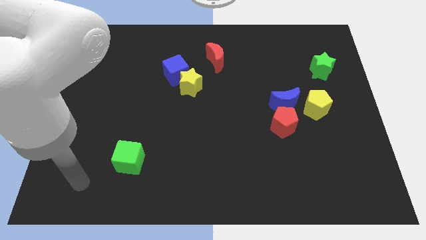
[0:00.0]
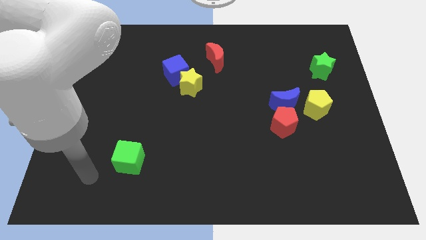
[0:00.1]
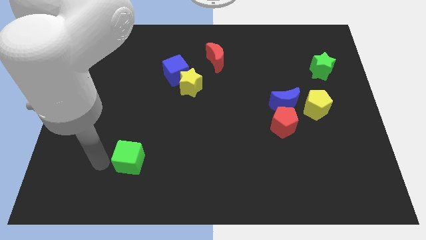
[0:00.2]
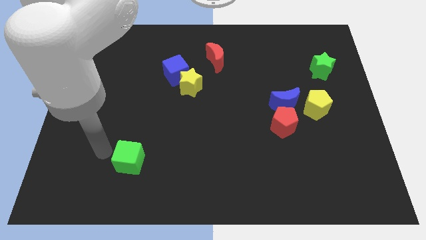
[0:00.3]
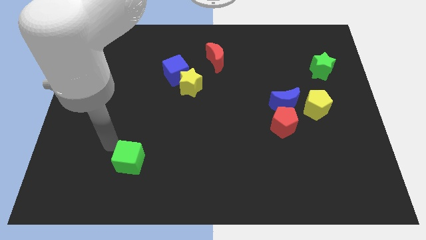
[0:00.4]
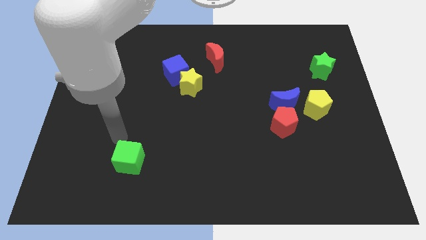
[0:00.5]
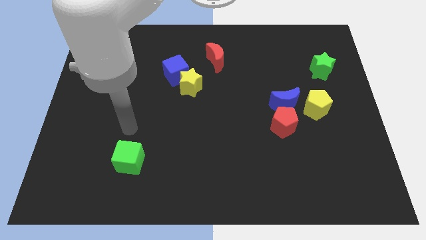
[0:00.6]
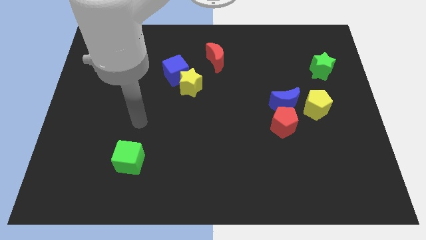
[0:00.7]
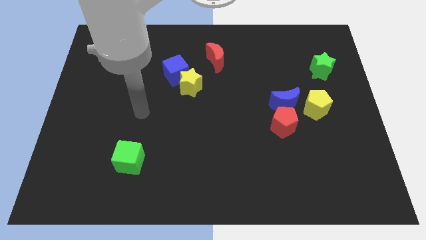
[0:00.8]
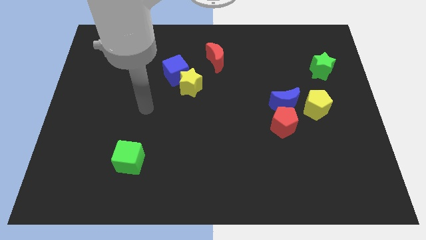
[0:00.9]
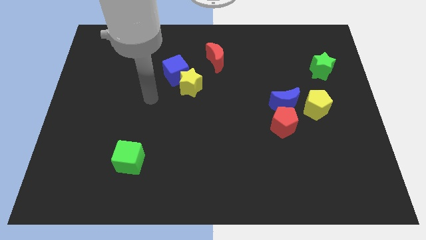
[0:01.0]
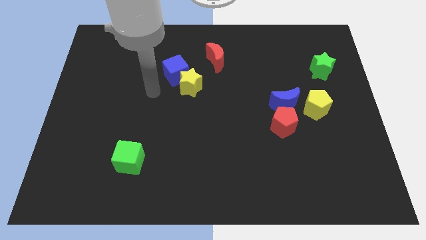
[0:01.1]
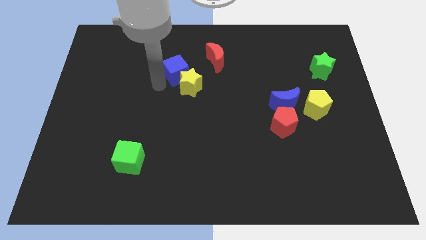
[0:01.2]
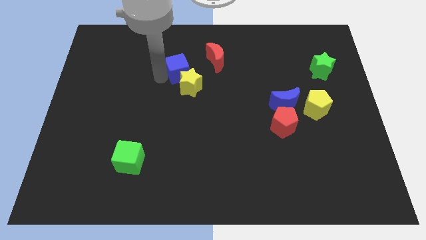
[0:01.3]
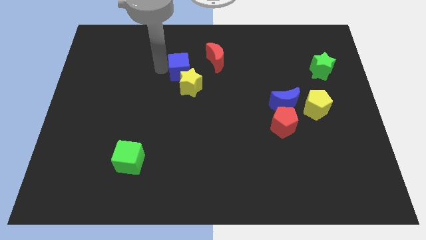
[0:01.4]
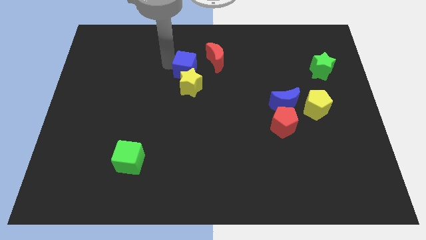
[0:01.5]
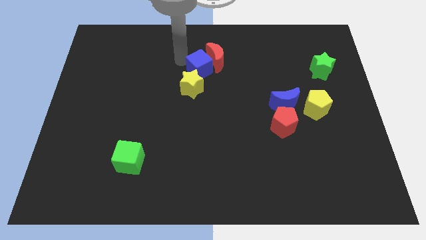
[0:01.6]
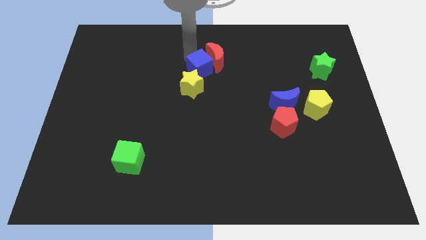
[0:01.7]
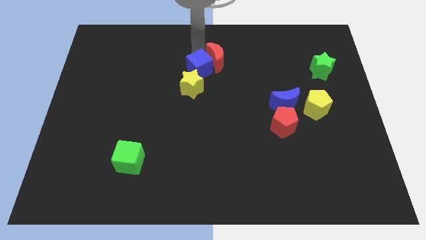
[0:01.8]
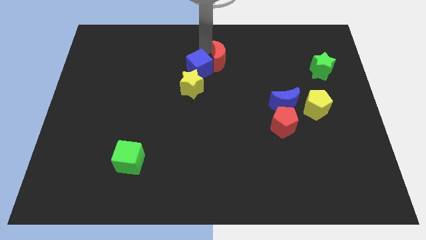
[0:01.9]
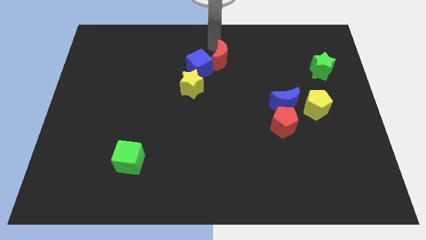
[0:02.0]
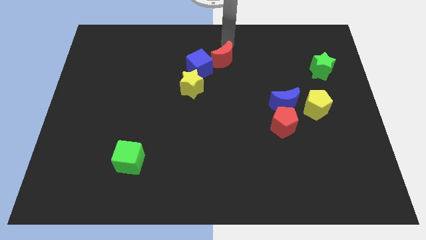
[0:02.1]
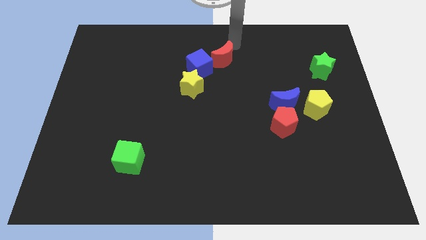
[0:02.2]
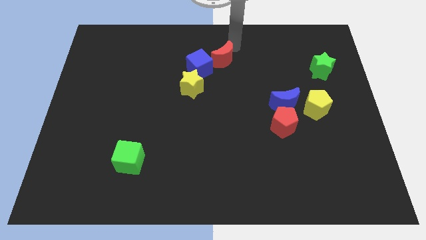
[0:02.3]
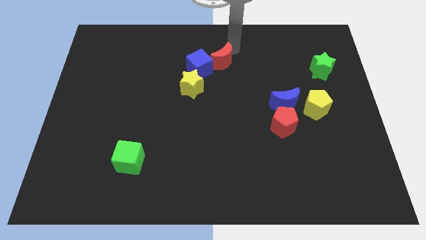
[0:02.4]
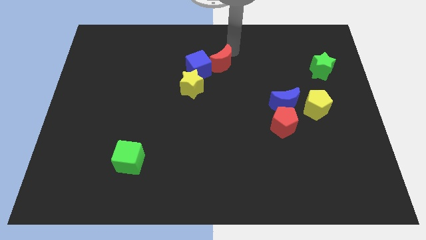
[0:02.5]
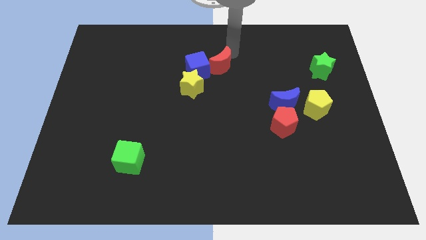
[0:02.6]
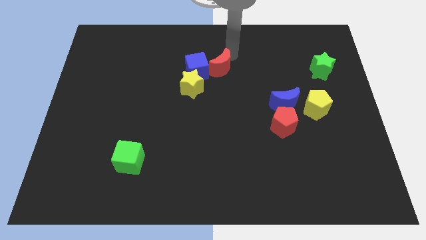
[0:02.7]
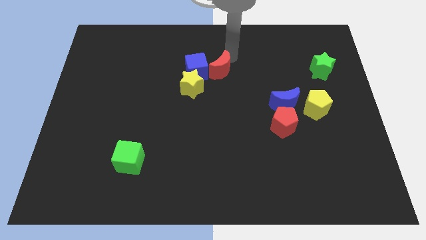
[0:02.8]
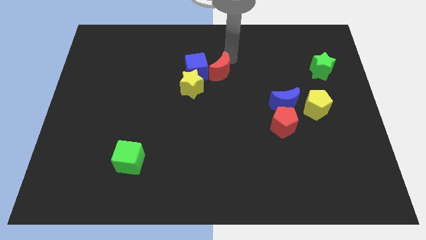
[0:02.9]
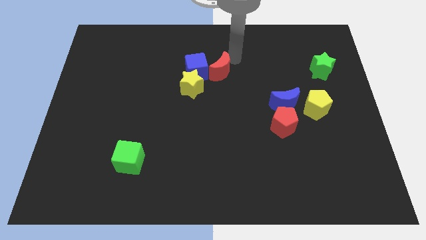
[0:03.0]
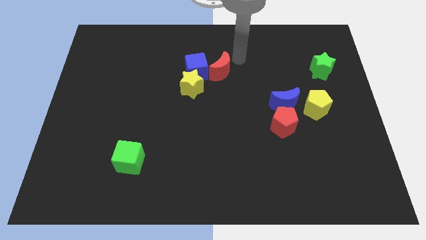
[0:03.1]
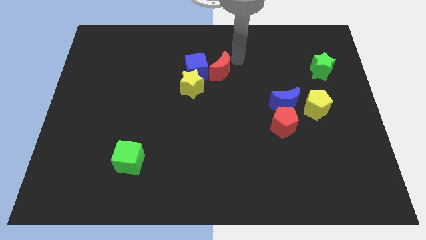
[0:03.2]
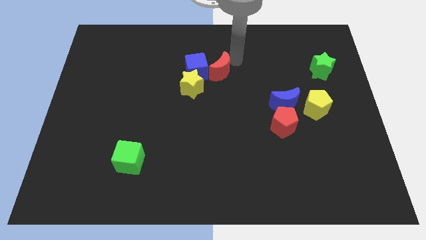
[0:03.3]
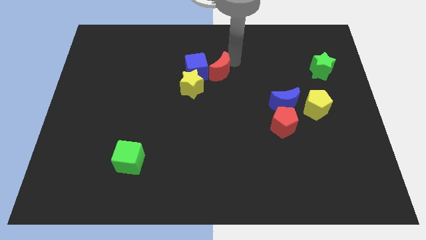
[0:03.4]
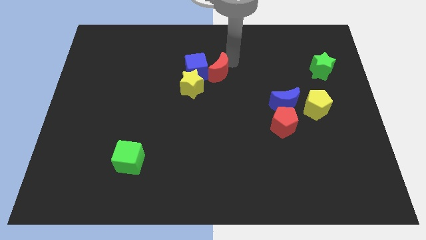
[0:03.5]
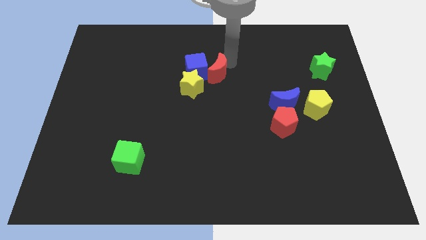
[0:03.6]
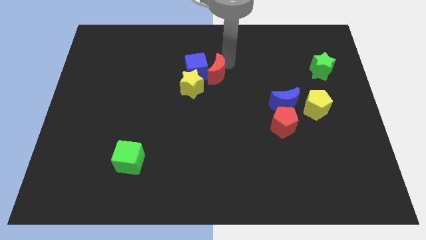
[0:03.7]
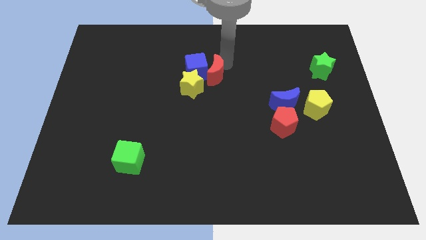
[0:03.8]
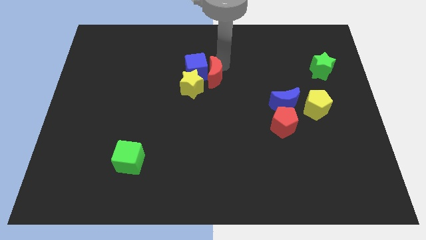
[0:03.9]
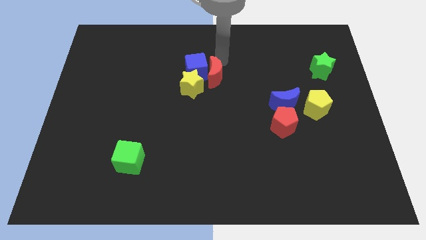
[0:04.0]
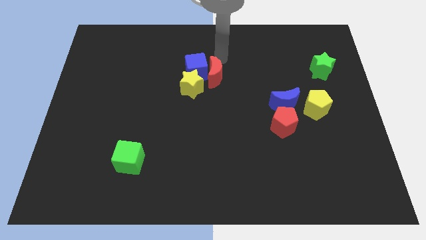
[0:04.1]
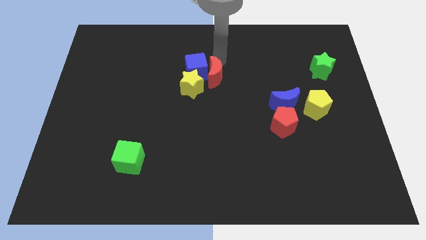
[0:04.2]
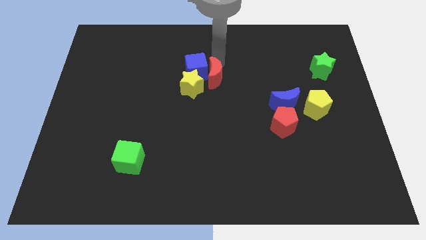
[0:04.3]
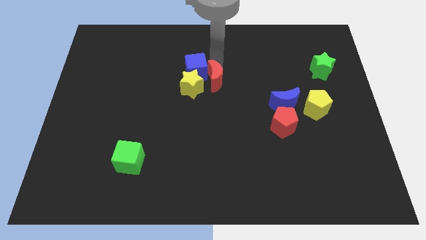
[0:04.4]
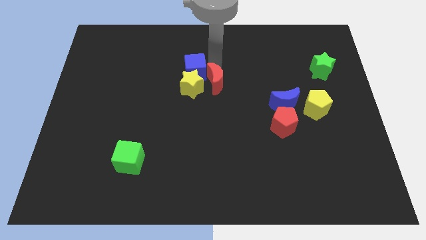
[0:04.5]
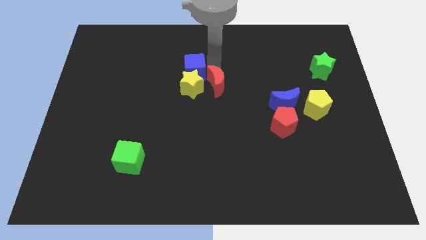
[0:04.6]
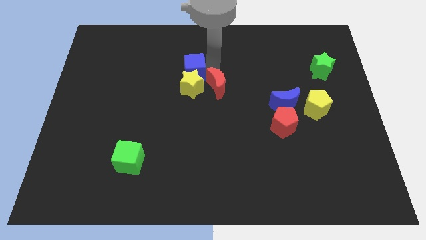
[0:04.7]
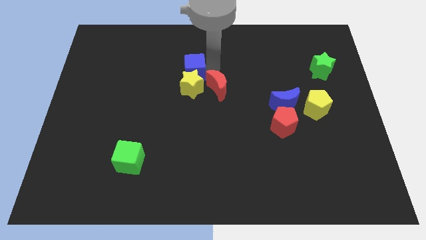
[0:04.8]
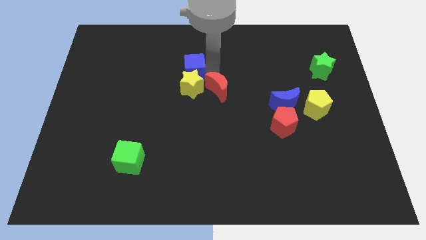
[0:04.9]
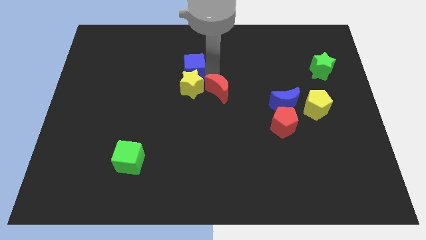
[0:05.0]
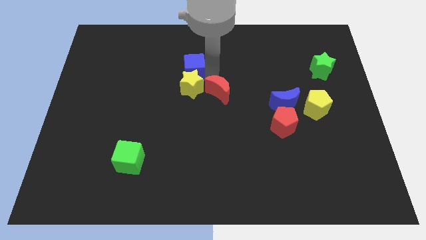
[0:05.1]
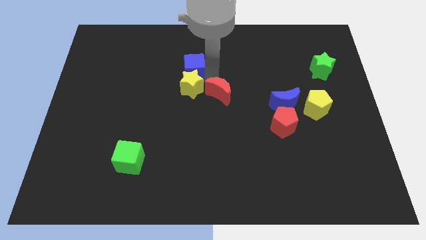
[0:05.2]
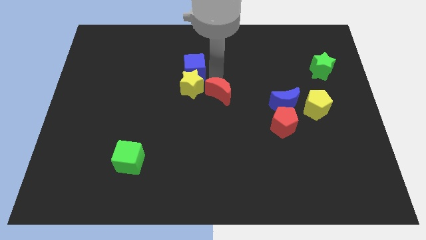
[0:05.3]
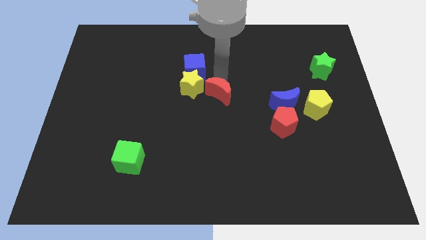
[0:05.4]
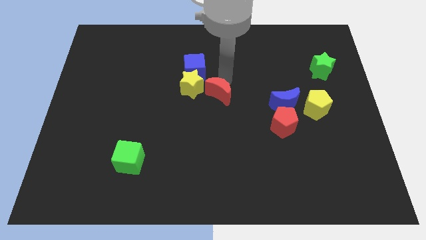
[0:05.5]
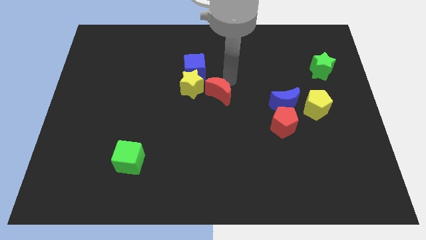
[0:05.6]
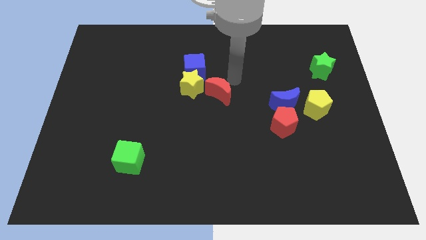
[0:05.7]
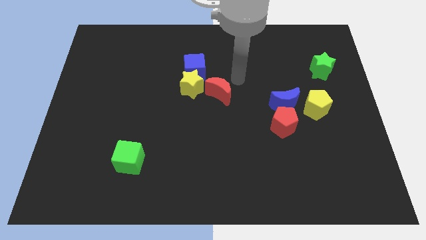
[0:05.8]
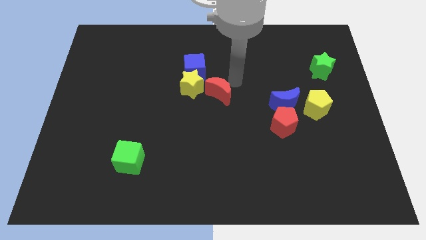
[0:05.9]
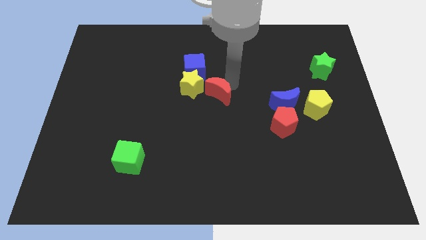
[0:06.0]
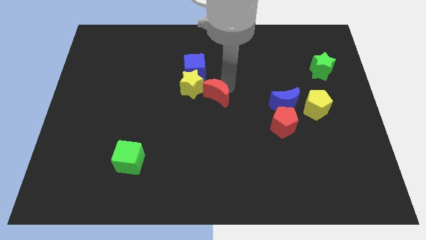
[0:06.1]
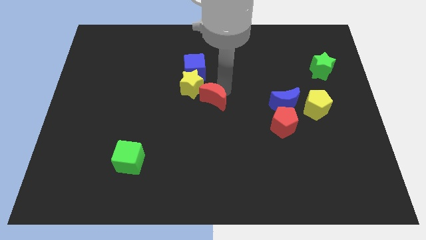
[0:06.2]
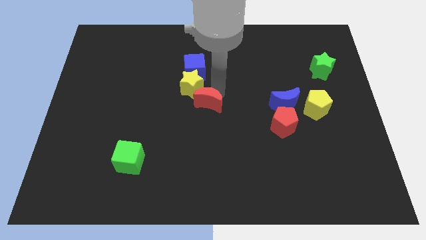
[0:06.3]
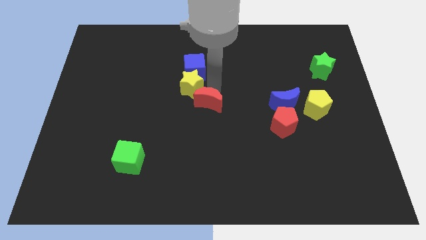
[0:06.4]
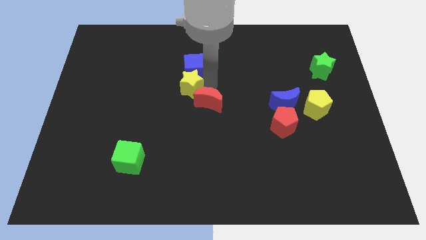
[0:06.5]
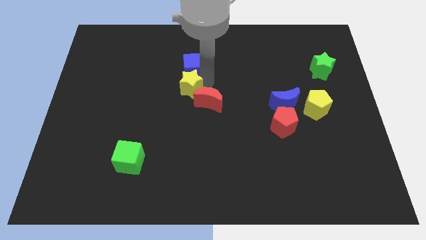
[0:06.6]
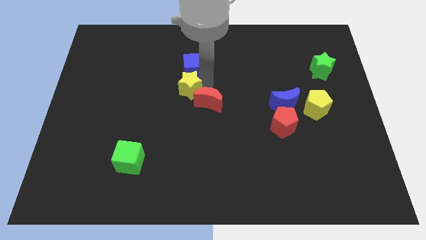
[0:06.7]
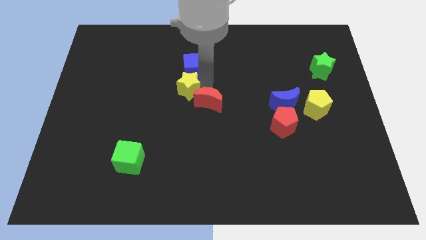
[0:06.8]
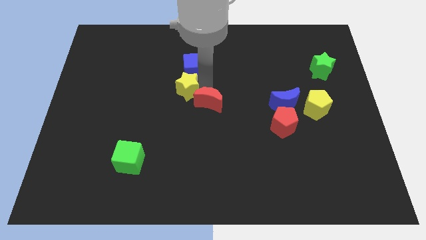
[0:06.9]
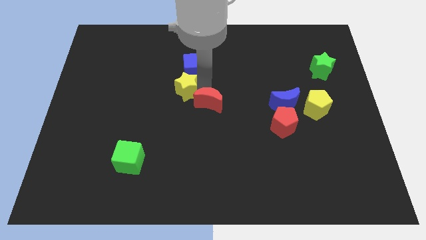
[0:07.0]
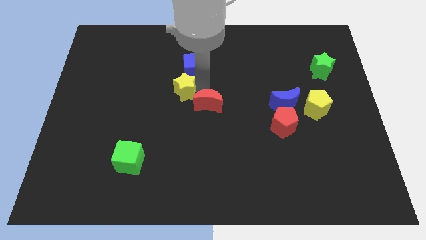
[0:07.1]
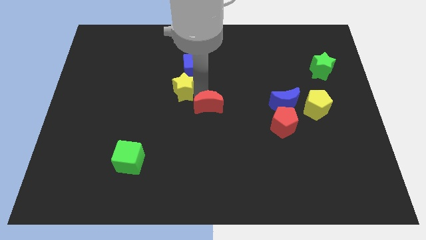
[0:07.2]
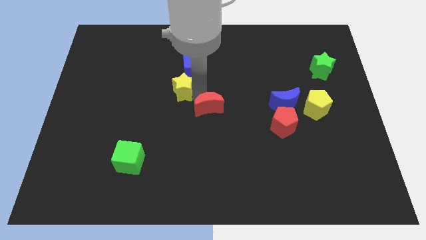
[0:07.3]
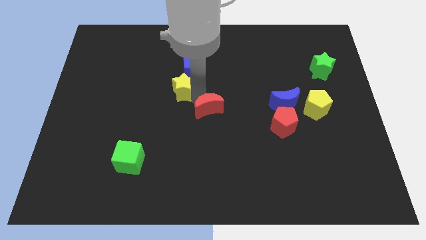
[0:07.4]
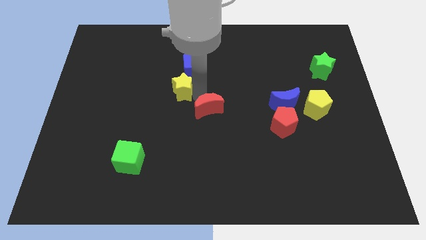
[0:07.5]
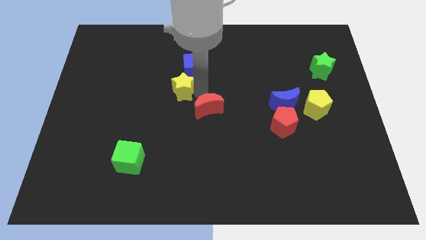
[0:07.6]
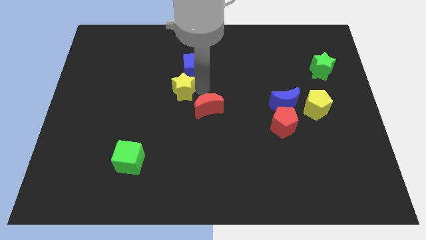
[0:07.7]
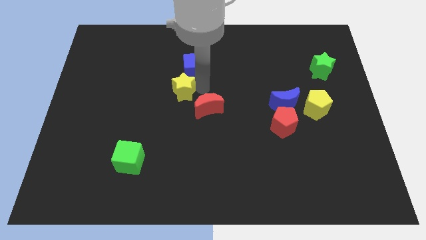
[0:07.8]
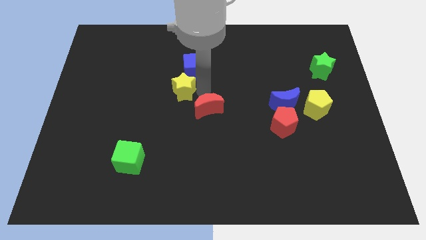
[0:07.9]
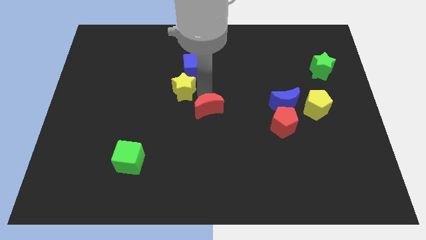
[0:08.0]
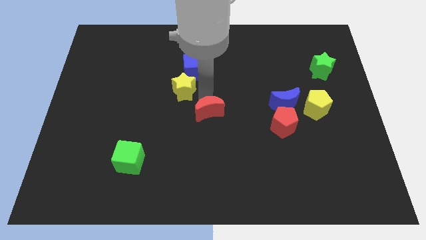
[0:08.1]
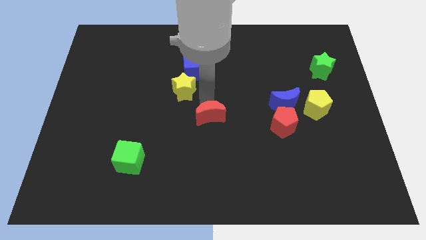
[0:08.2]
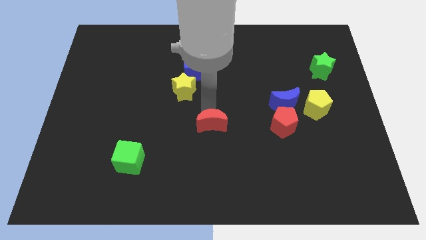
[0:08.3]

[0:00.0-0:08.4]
slide the red moon down
